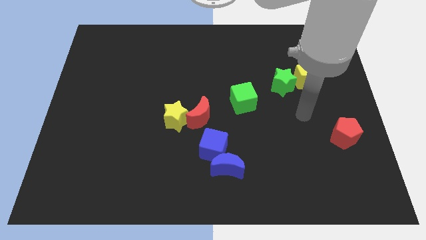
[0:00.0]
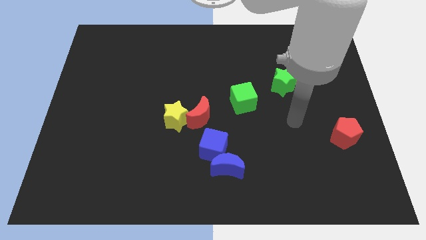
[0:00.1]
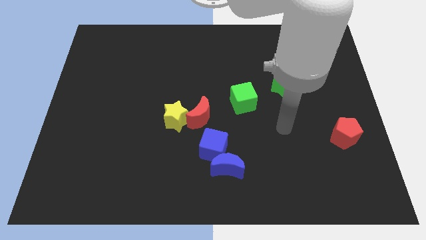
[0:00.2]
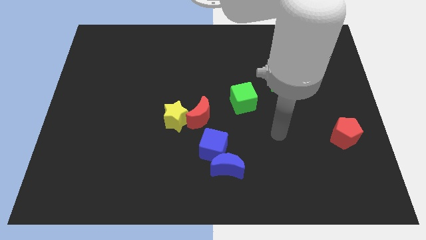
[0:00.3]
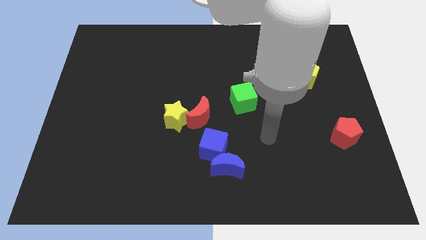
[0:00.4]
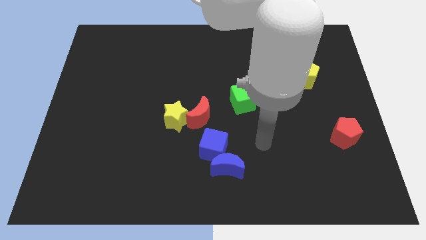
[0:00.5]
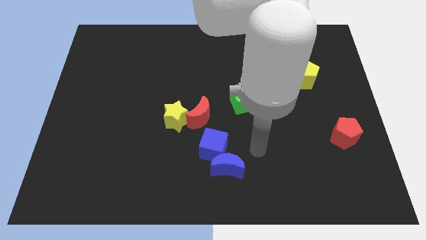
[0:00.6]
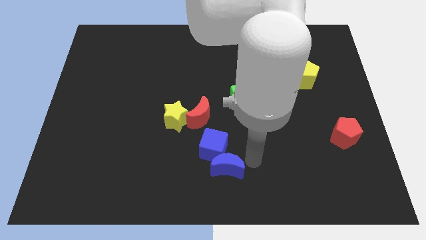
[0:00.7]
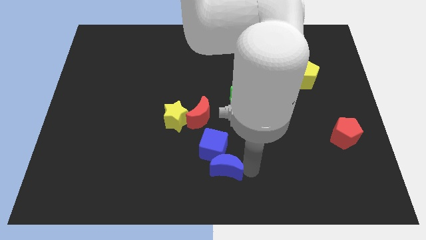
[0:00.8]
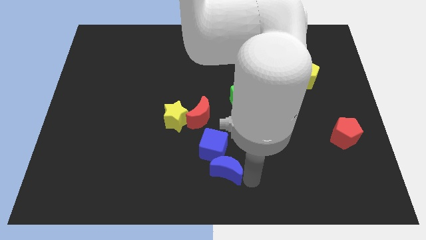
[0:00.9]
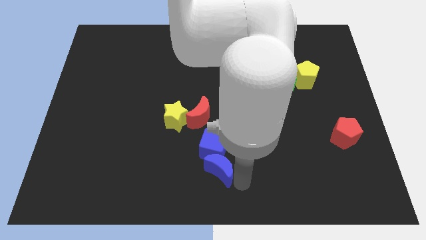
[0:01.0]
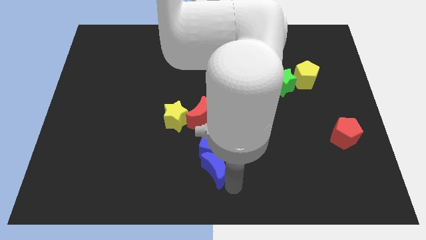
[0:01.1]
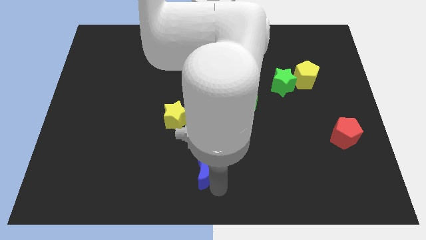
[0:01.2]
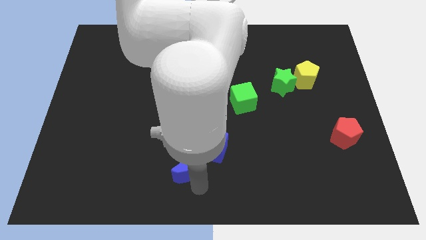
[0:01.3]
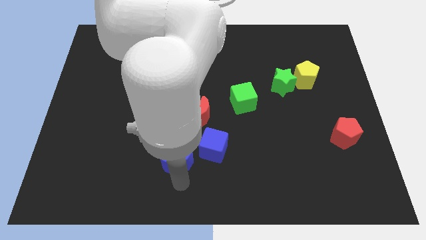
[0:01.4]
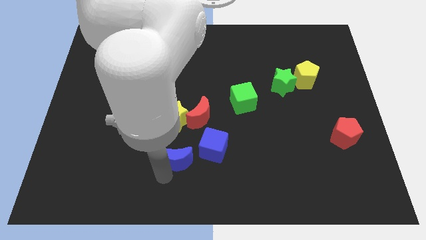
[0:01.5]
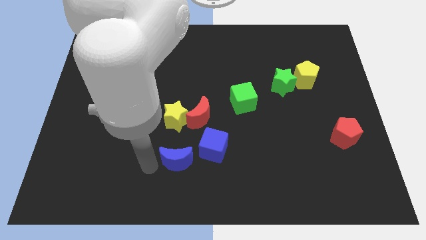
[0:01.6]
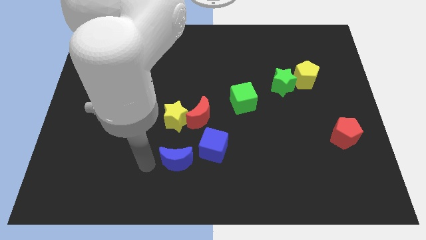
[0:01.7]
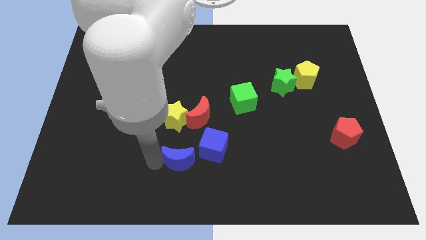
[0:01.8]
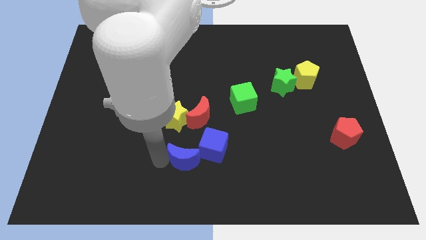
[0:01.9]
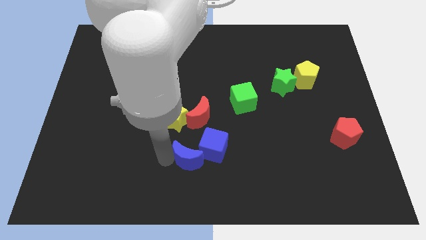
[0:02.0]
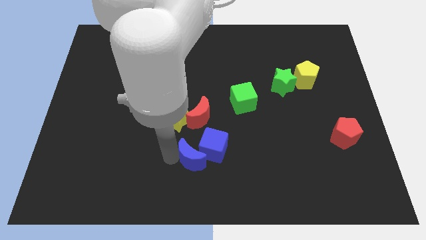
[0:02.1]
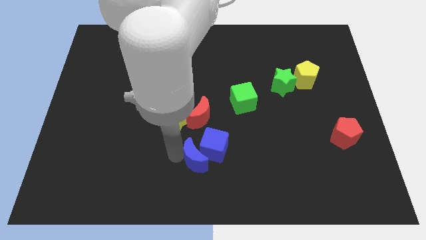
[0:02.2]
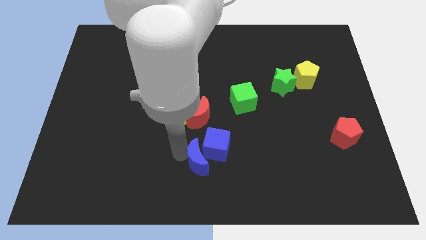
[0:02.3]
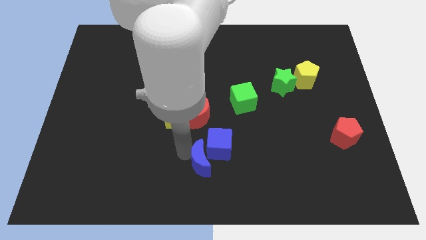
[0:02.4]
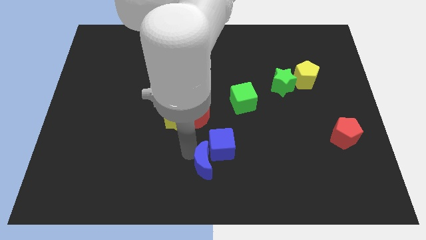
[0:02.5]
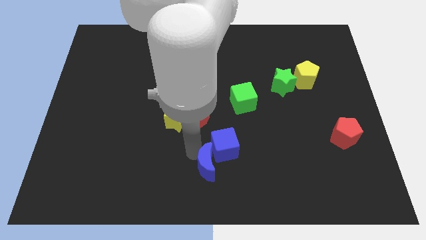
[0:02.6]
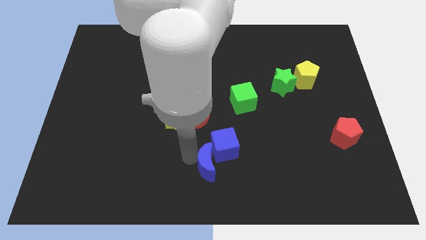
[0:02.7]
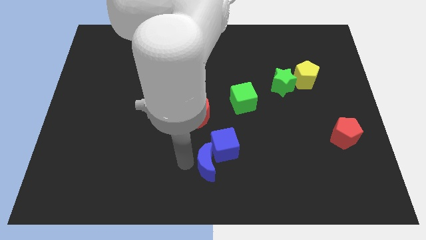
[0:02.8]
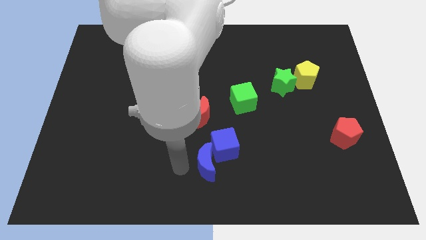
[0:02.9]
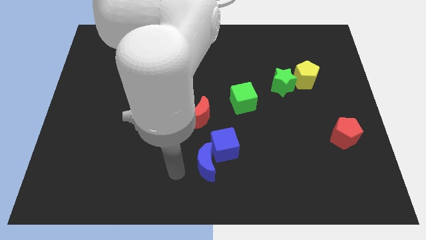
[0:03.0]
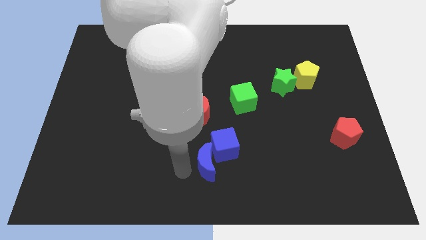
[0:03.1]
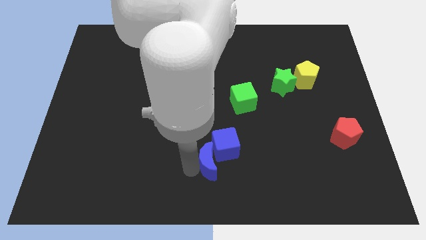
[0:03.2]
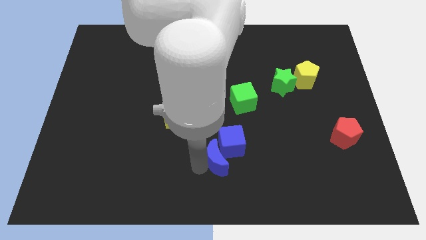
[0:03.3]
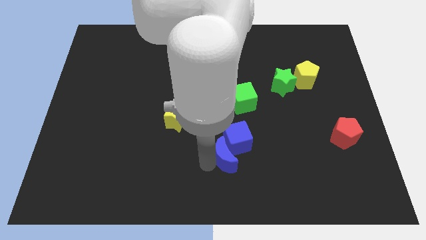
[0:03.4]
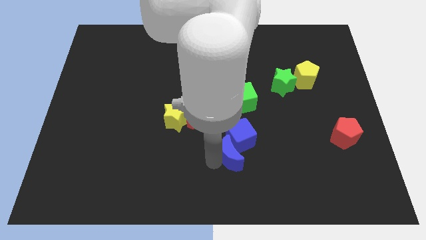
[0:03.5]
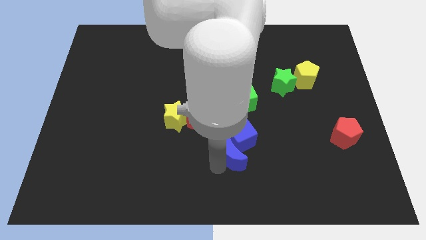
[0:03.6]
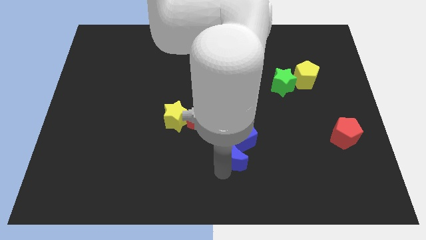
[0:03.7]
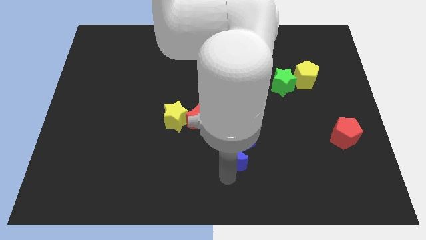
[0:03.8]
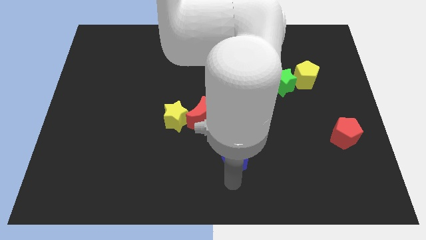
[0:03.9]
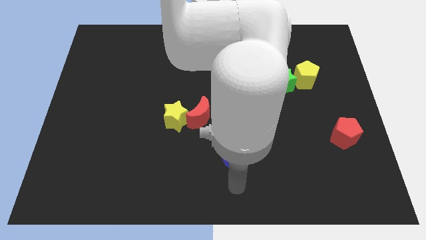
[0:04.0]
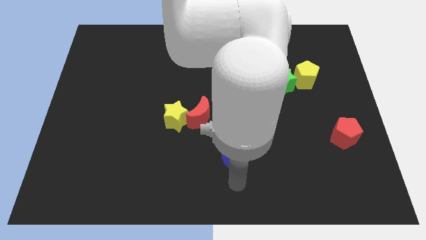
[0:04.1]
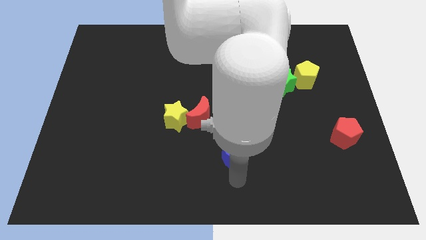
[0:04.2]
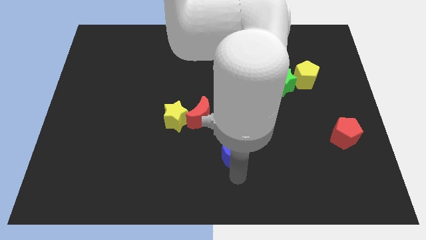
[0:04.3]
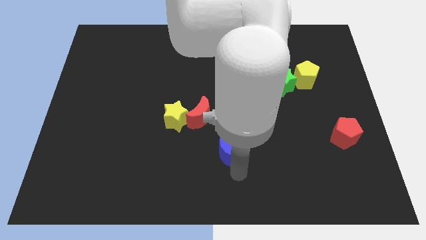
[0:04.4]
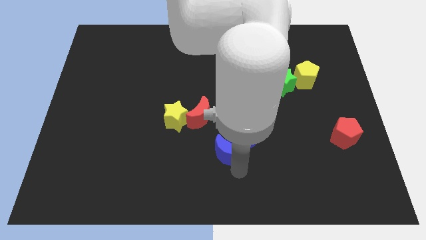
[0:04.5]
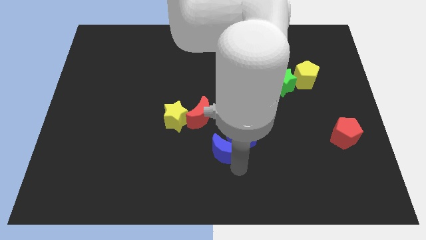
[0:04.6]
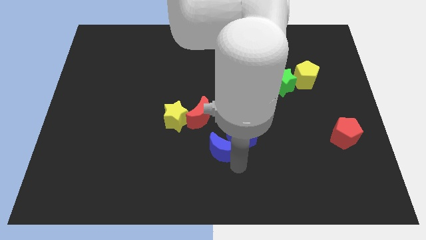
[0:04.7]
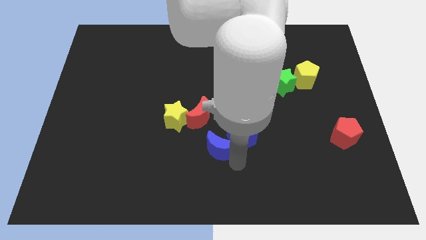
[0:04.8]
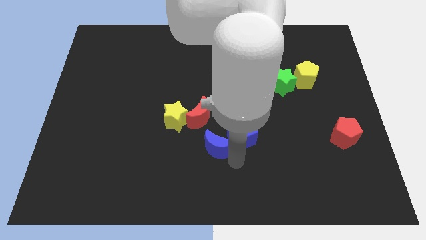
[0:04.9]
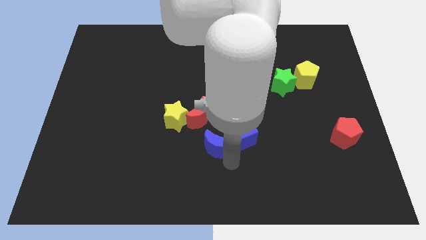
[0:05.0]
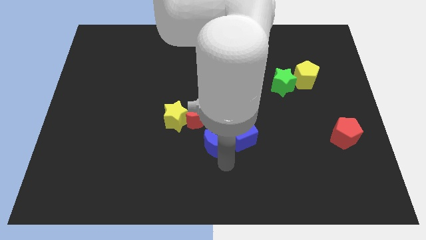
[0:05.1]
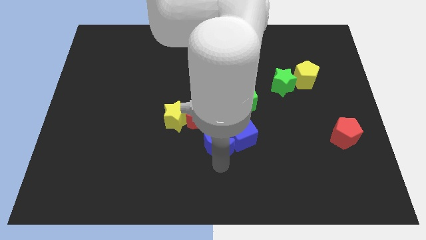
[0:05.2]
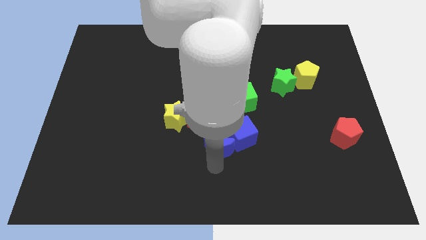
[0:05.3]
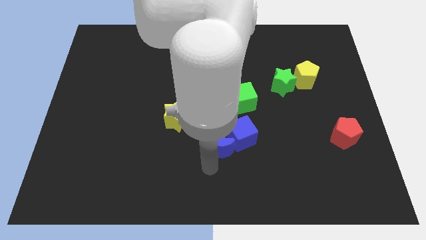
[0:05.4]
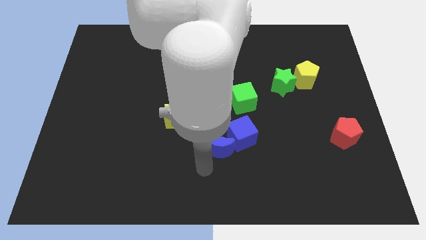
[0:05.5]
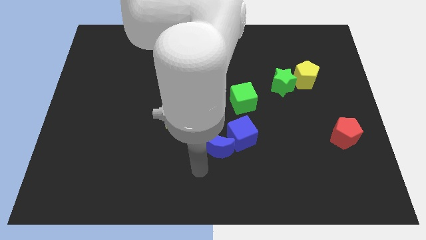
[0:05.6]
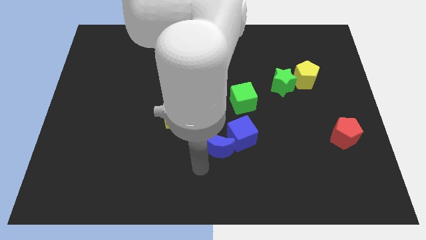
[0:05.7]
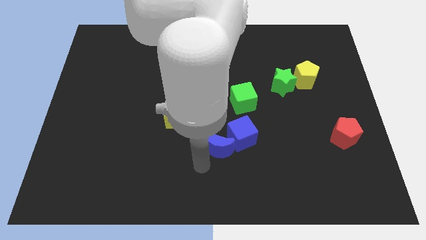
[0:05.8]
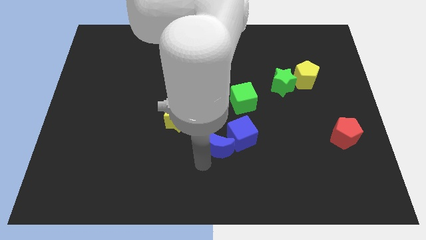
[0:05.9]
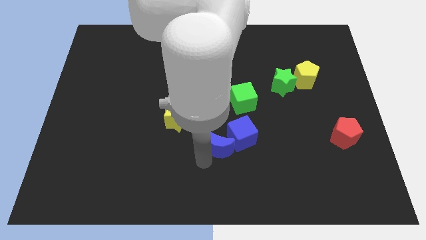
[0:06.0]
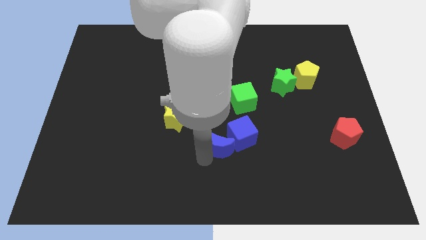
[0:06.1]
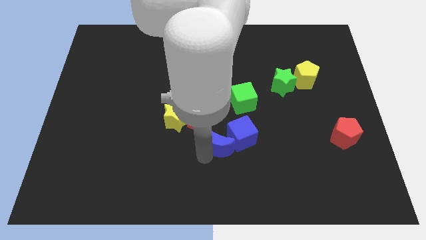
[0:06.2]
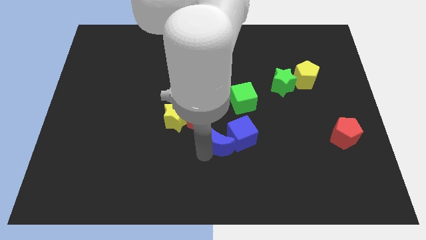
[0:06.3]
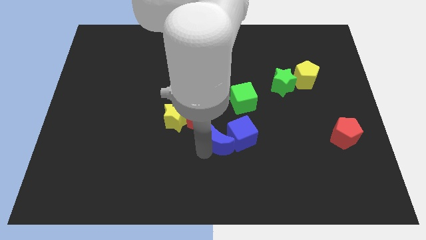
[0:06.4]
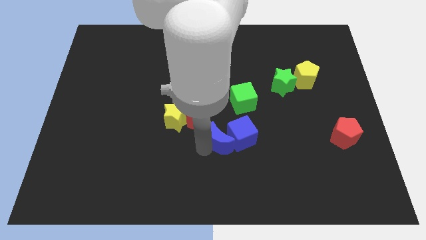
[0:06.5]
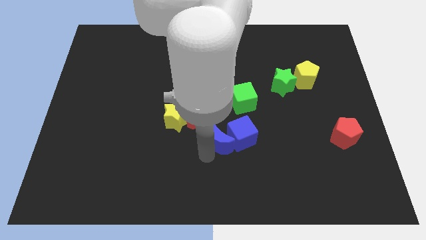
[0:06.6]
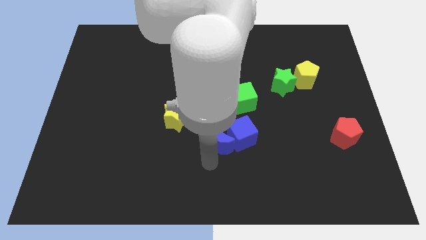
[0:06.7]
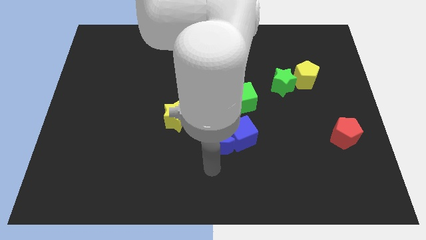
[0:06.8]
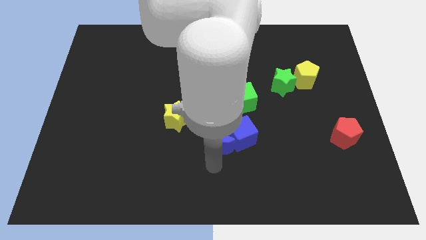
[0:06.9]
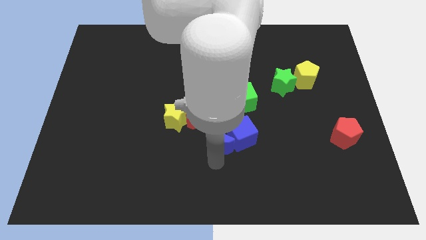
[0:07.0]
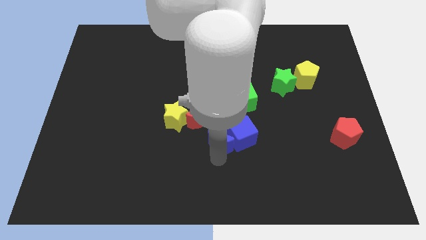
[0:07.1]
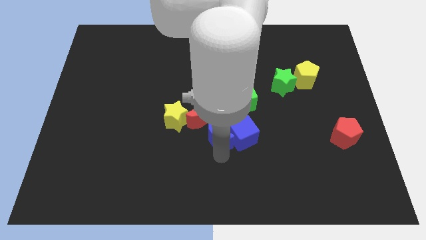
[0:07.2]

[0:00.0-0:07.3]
push the blue moon upwards somewhat

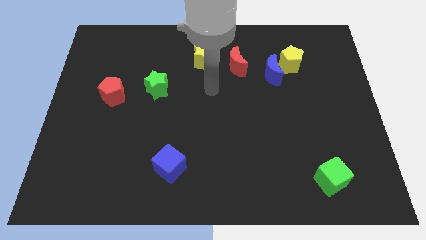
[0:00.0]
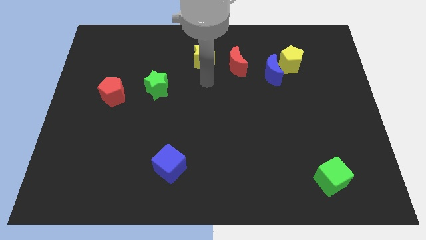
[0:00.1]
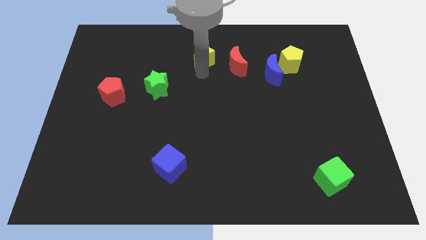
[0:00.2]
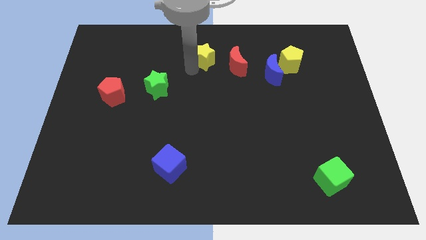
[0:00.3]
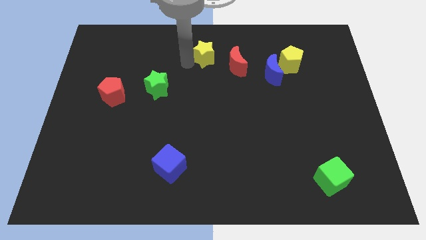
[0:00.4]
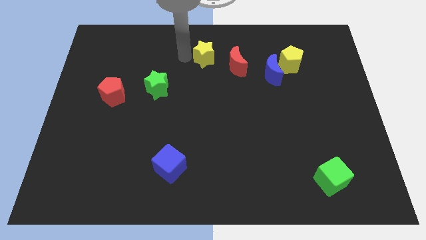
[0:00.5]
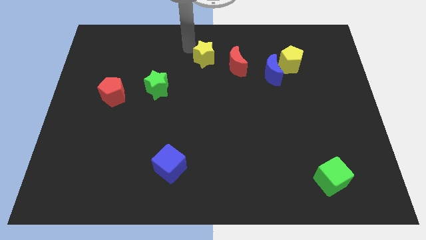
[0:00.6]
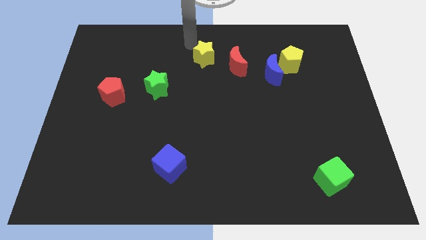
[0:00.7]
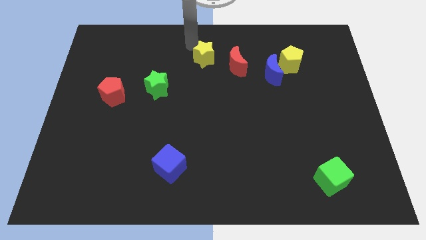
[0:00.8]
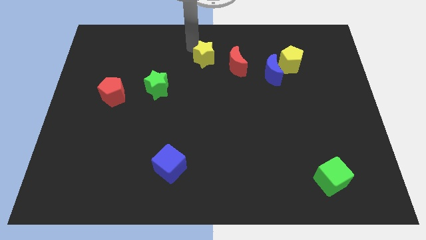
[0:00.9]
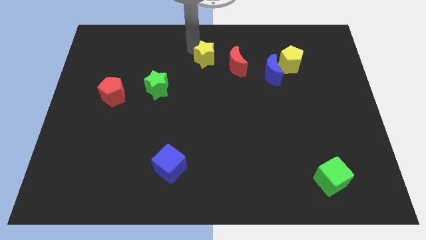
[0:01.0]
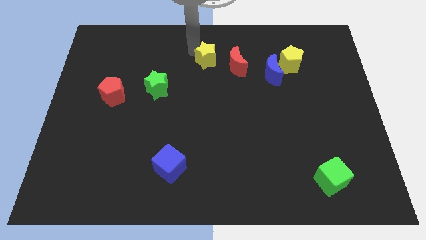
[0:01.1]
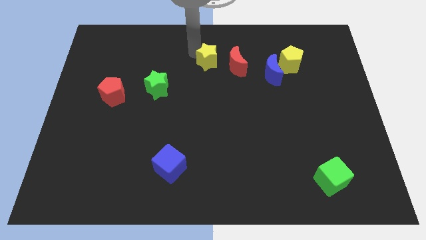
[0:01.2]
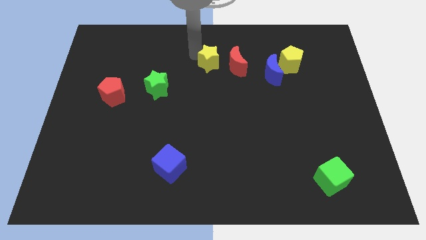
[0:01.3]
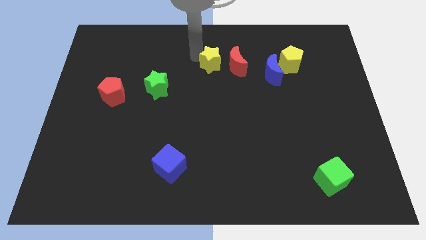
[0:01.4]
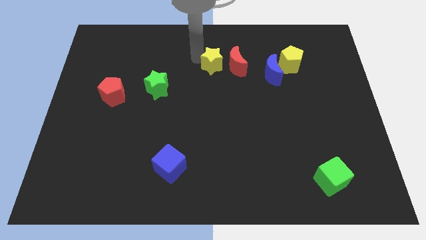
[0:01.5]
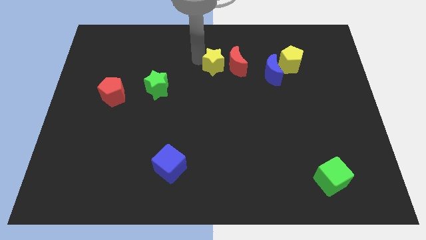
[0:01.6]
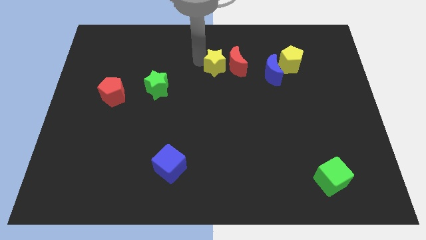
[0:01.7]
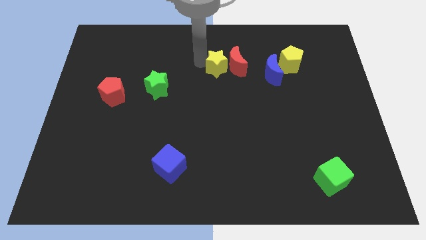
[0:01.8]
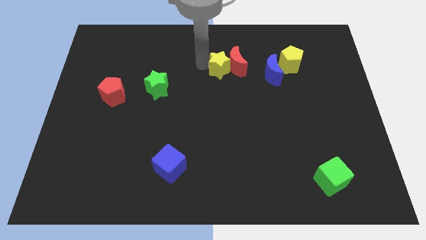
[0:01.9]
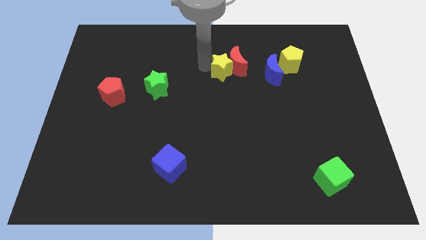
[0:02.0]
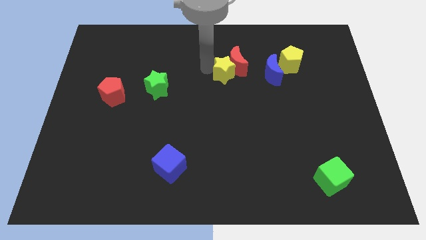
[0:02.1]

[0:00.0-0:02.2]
slide the yellow star diagonally down and to the right a bit
